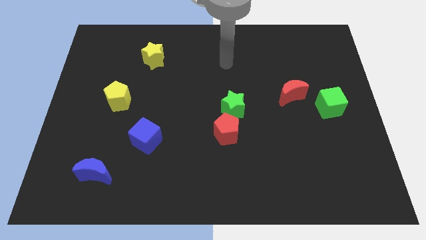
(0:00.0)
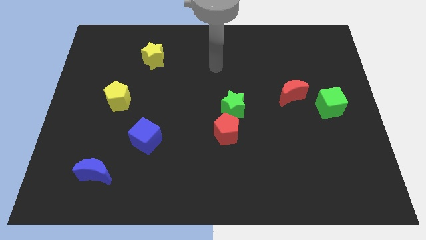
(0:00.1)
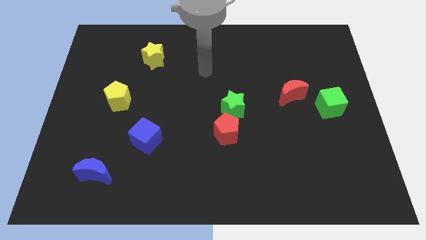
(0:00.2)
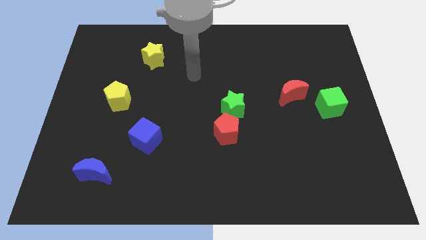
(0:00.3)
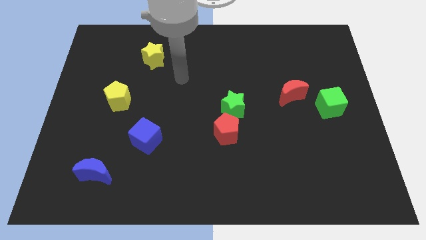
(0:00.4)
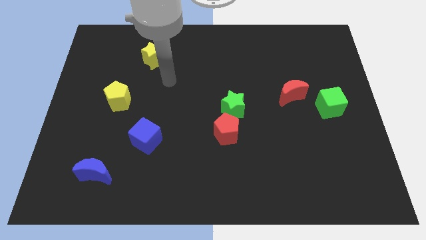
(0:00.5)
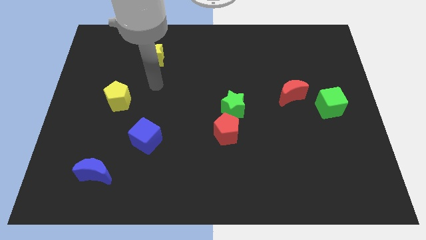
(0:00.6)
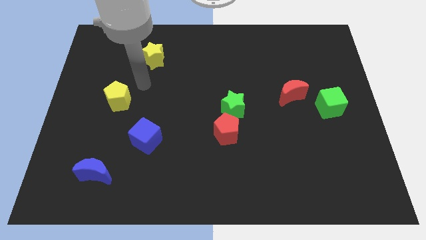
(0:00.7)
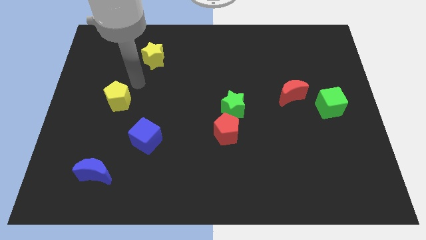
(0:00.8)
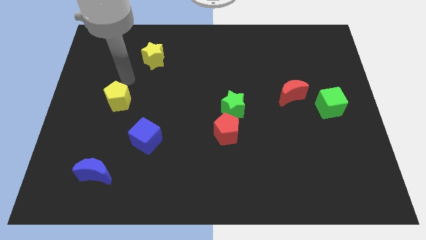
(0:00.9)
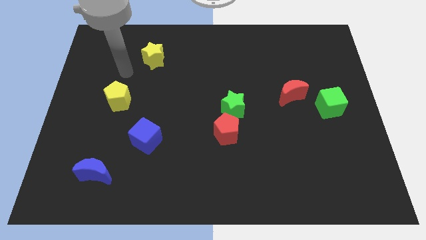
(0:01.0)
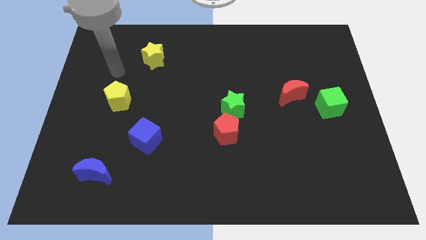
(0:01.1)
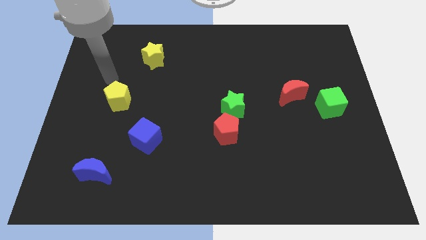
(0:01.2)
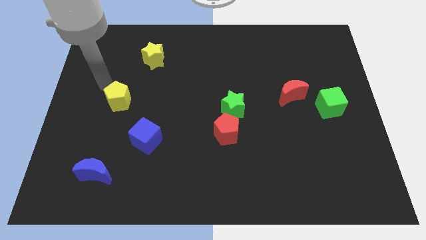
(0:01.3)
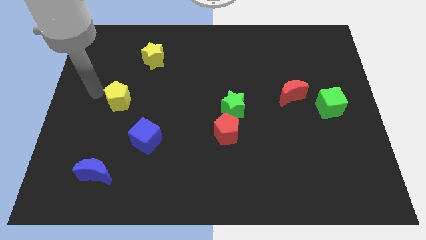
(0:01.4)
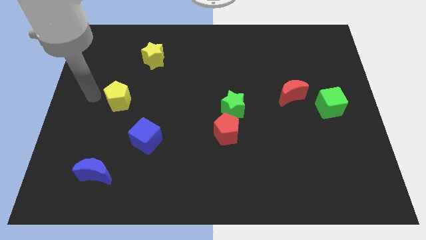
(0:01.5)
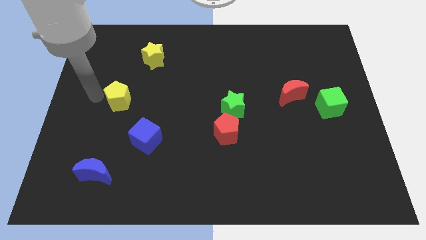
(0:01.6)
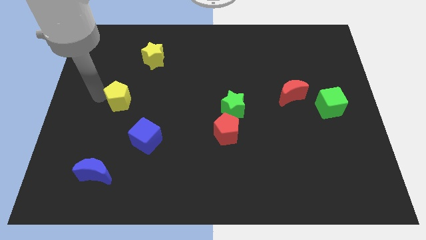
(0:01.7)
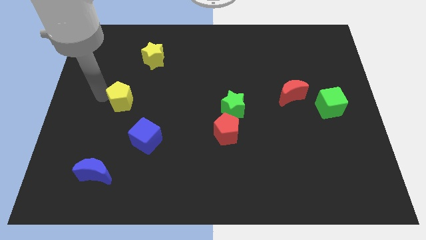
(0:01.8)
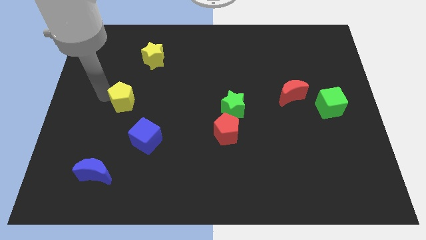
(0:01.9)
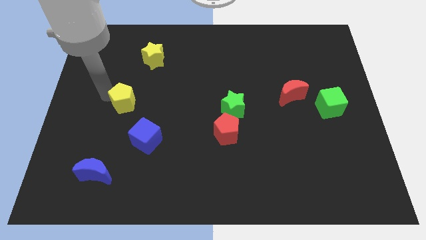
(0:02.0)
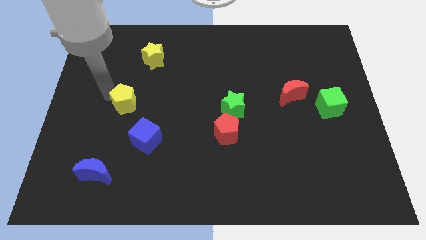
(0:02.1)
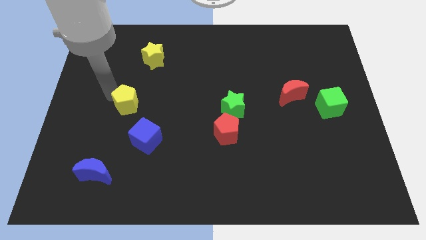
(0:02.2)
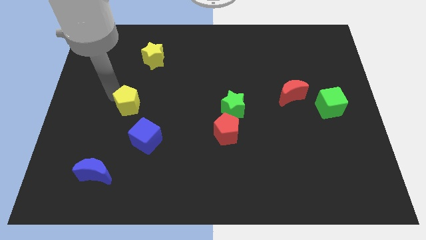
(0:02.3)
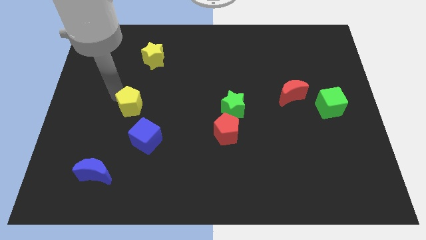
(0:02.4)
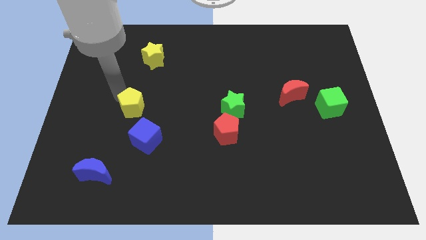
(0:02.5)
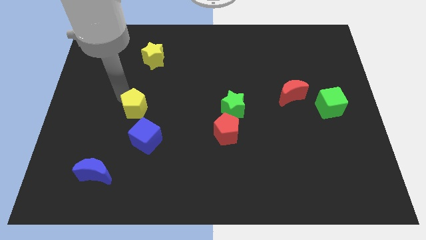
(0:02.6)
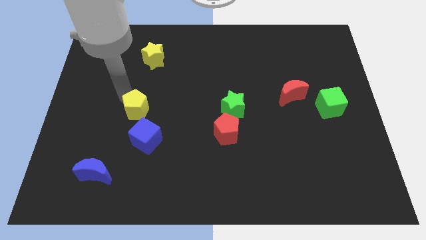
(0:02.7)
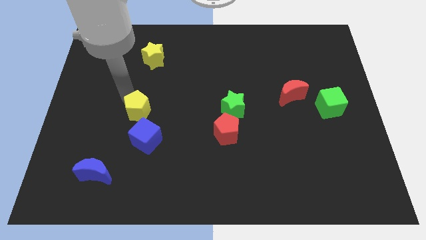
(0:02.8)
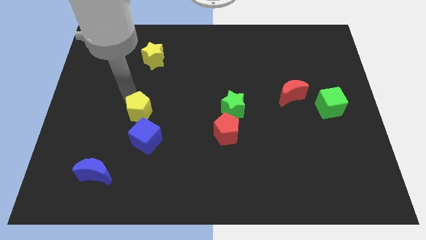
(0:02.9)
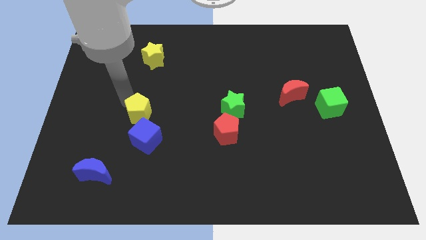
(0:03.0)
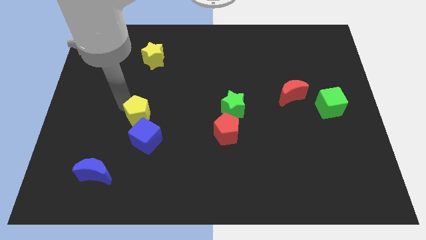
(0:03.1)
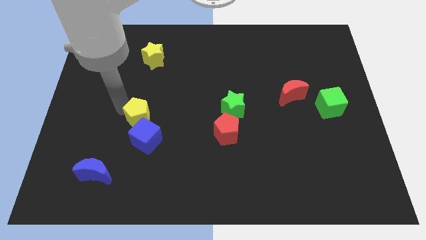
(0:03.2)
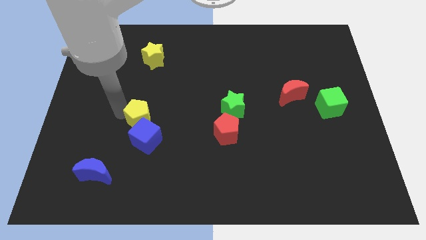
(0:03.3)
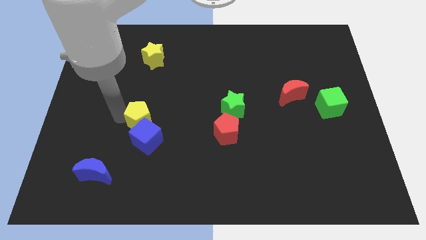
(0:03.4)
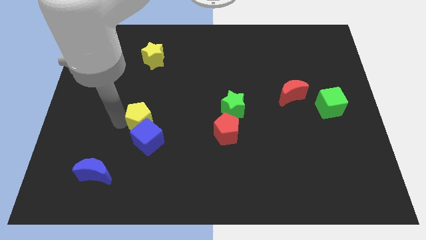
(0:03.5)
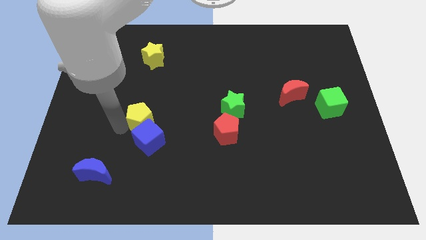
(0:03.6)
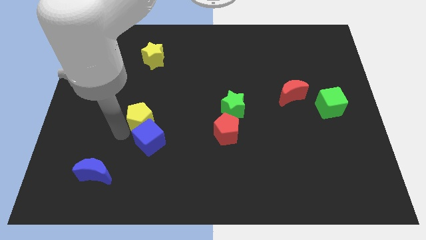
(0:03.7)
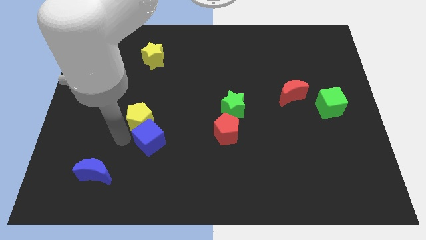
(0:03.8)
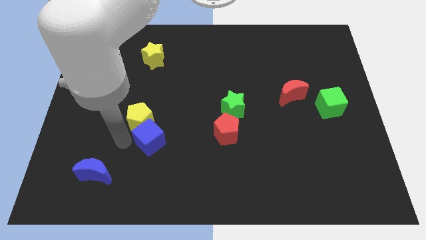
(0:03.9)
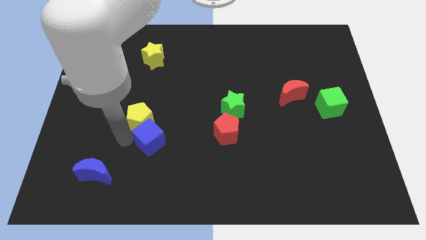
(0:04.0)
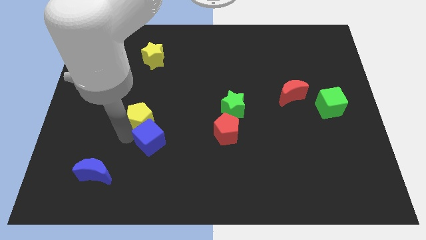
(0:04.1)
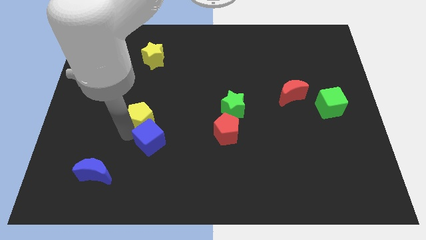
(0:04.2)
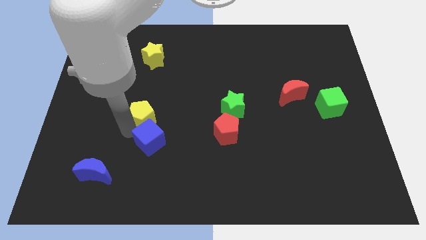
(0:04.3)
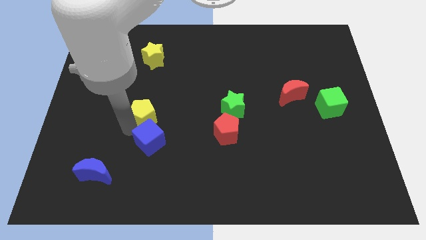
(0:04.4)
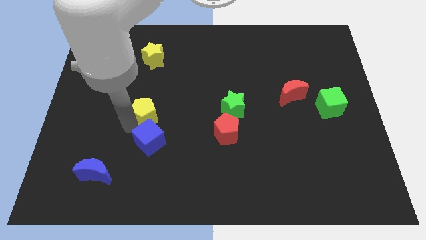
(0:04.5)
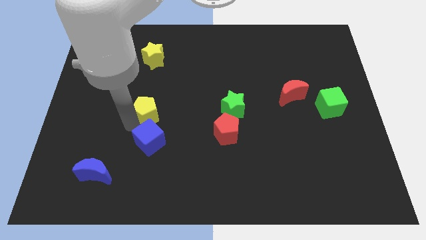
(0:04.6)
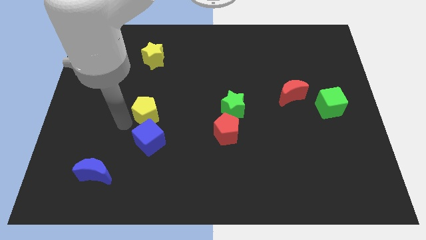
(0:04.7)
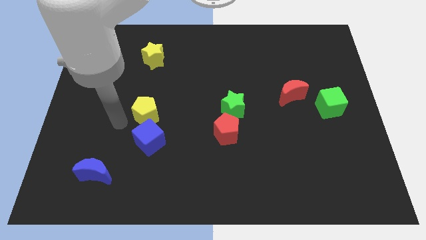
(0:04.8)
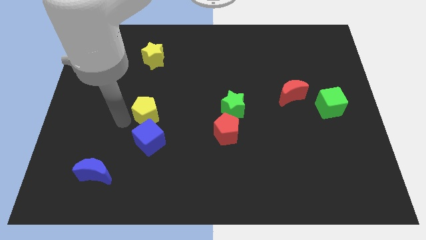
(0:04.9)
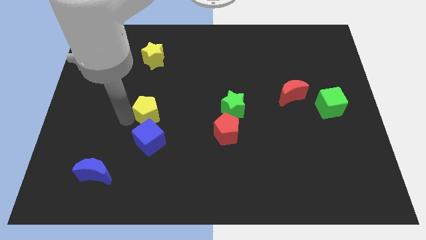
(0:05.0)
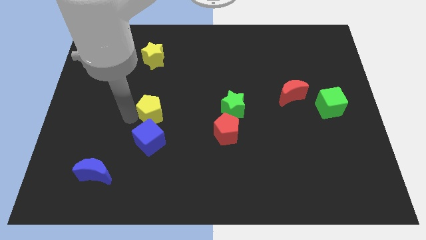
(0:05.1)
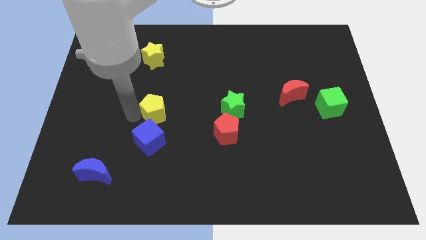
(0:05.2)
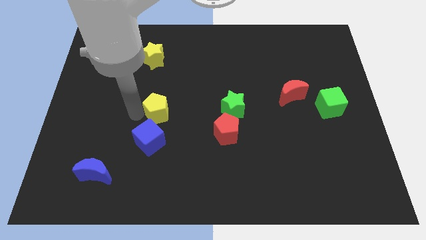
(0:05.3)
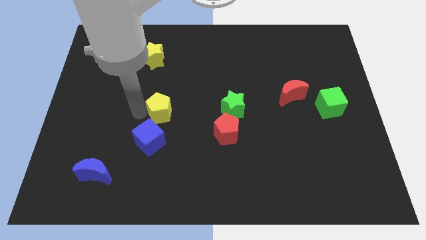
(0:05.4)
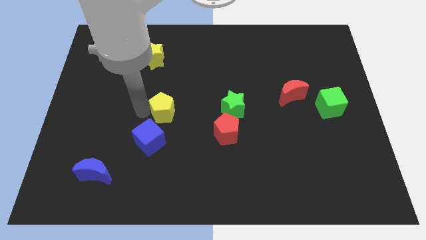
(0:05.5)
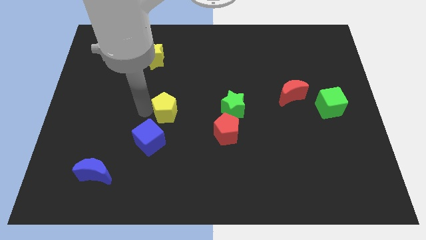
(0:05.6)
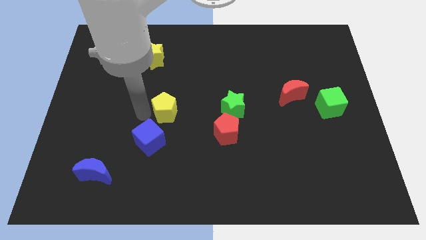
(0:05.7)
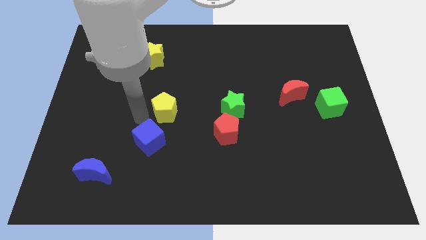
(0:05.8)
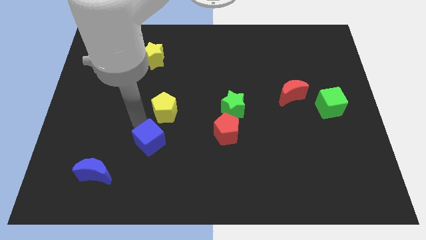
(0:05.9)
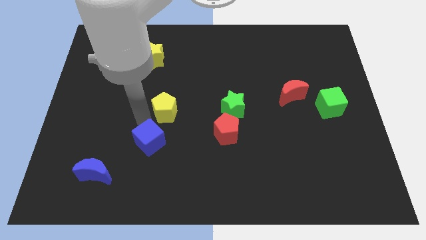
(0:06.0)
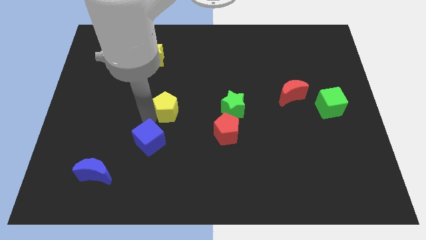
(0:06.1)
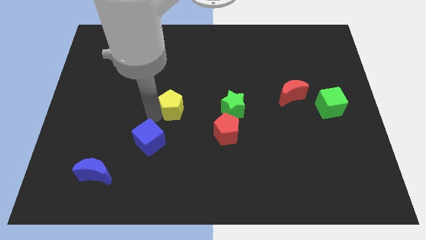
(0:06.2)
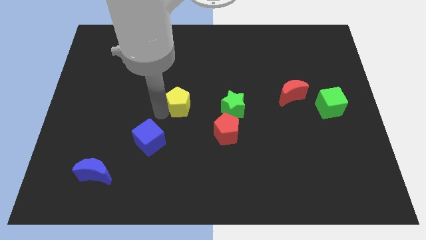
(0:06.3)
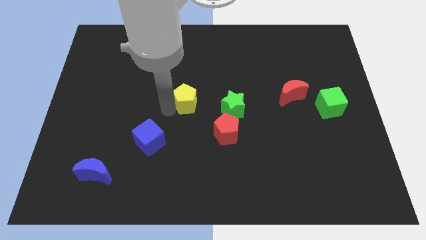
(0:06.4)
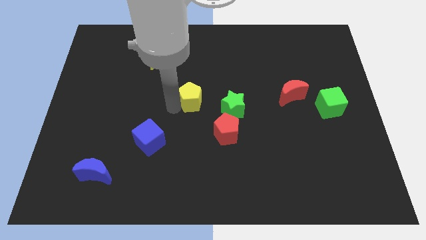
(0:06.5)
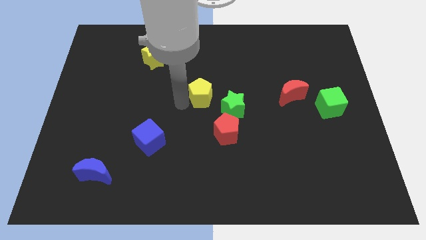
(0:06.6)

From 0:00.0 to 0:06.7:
move the yellow pentagon right

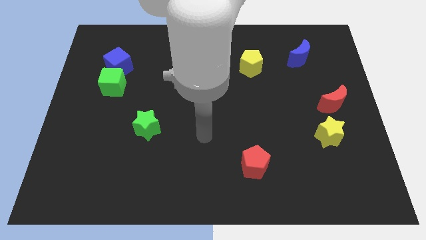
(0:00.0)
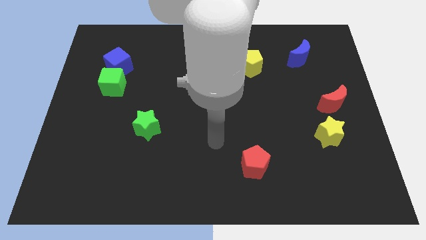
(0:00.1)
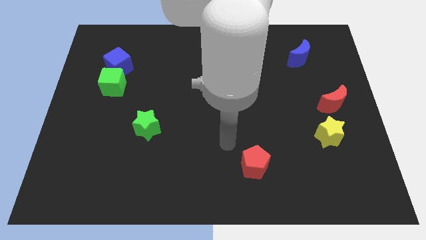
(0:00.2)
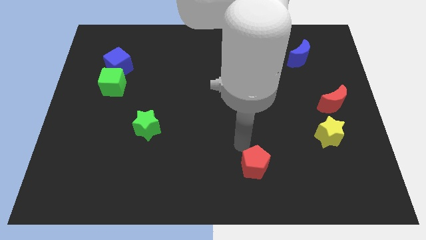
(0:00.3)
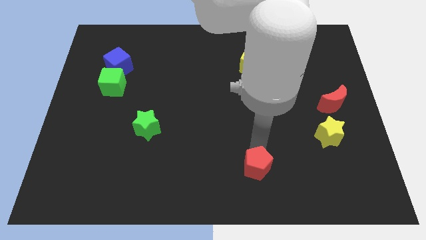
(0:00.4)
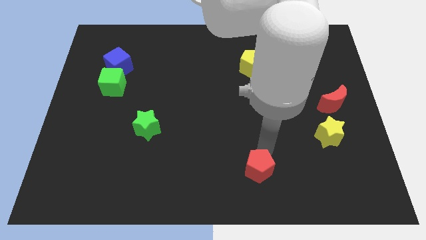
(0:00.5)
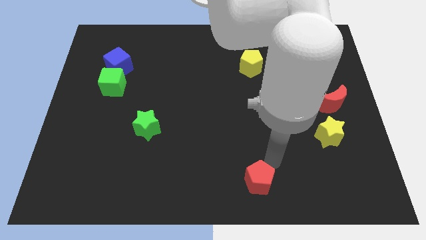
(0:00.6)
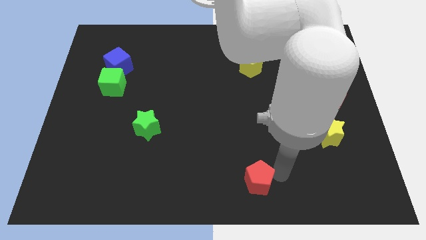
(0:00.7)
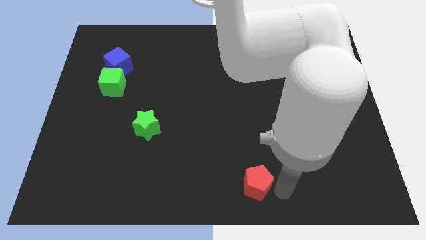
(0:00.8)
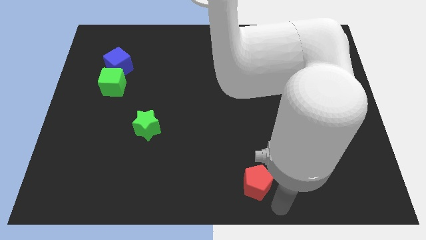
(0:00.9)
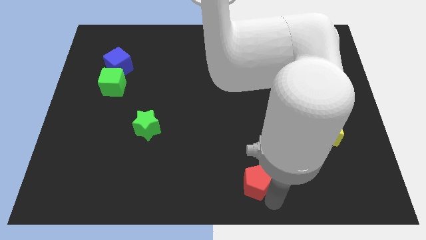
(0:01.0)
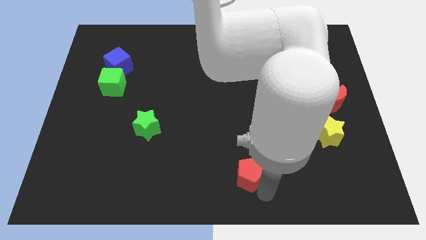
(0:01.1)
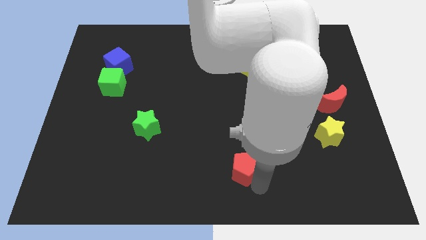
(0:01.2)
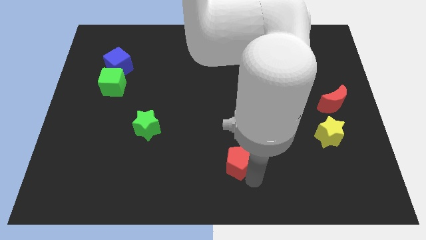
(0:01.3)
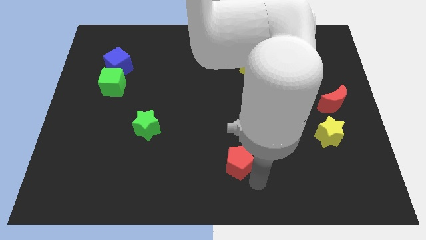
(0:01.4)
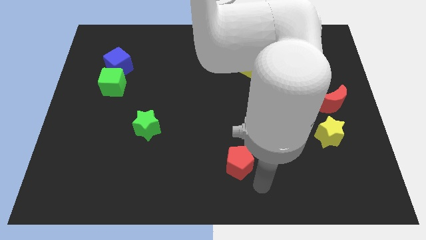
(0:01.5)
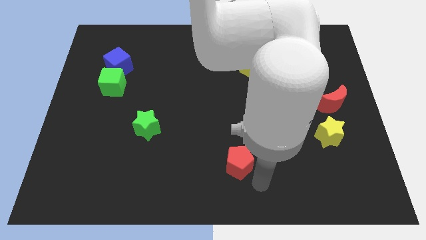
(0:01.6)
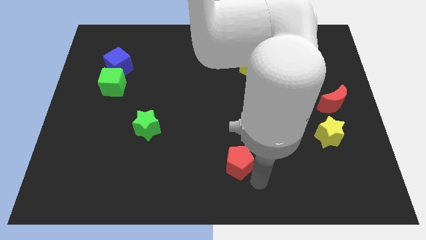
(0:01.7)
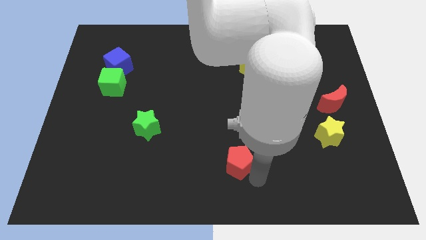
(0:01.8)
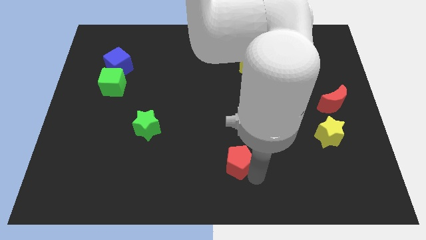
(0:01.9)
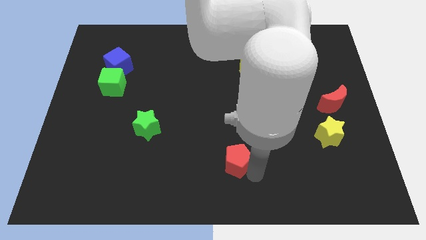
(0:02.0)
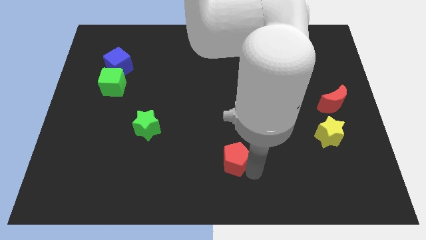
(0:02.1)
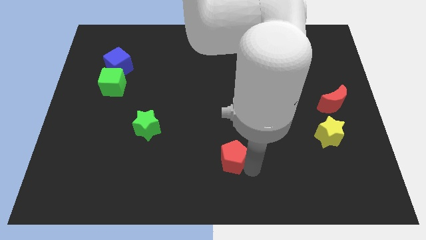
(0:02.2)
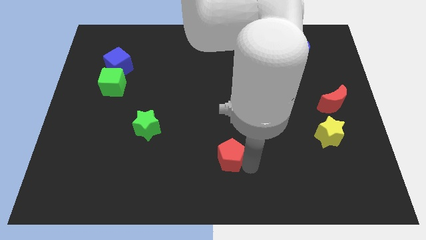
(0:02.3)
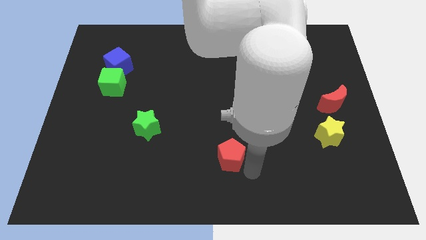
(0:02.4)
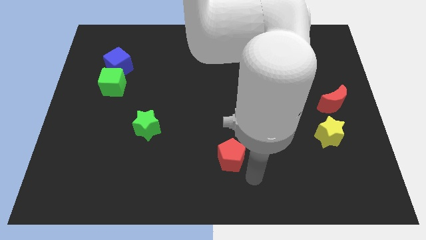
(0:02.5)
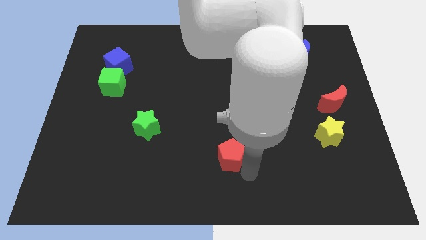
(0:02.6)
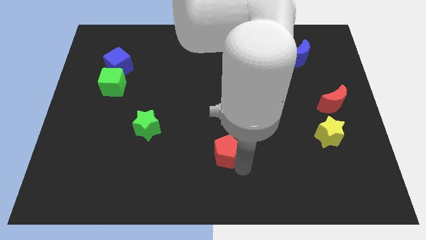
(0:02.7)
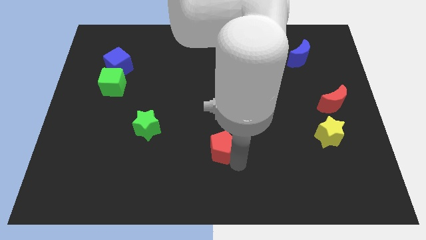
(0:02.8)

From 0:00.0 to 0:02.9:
slightly push the red pentagon upwards and left diagonally
